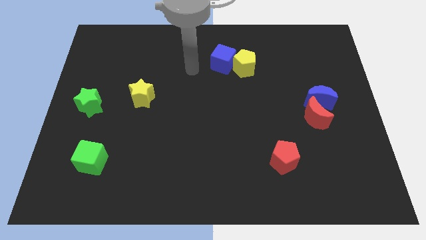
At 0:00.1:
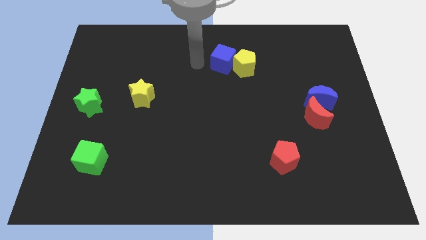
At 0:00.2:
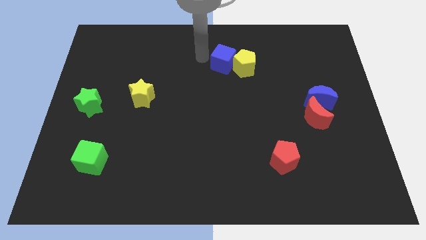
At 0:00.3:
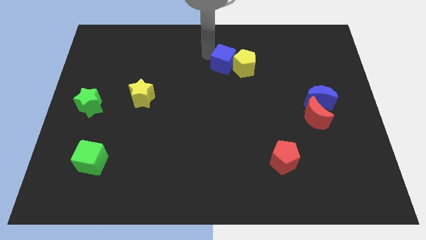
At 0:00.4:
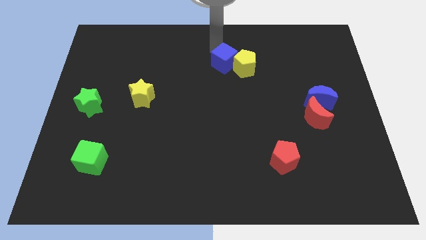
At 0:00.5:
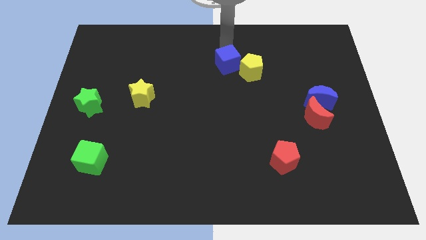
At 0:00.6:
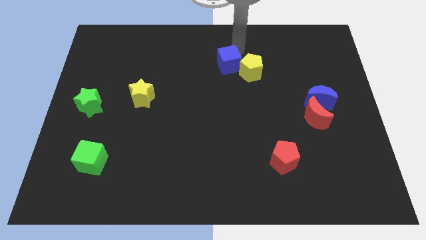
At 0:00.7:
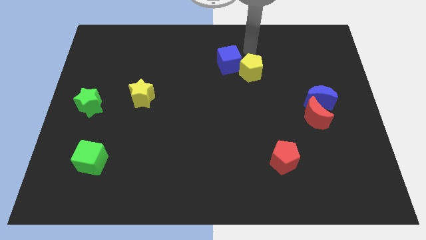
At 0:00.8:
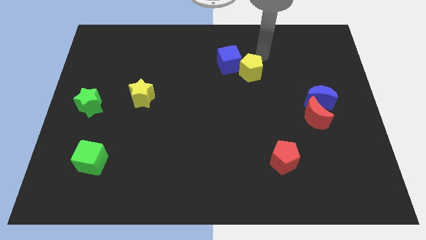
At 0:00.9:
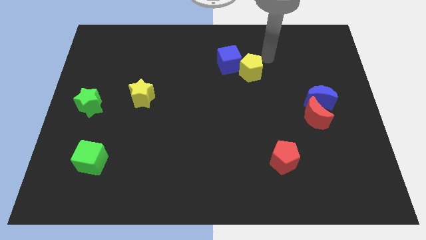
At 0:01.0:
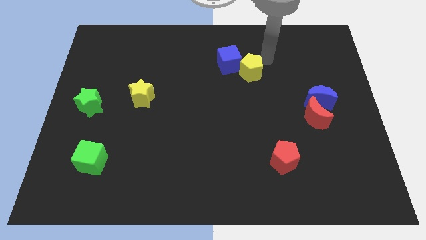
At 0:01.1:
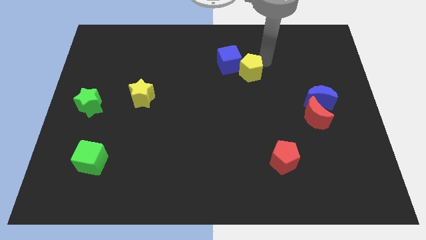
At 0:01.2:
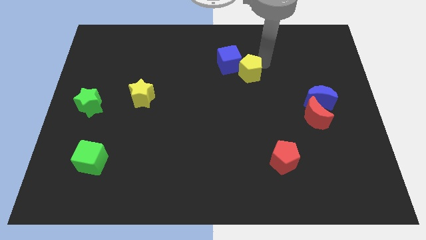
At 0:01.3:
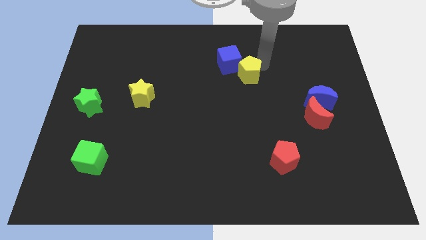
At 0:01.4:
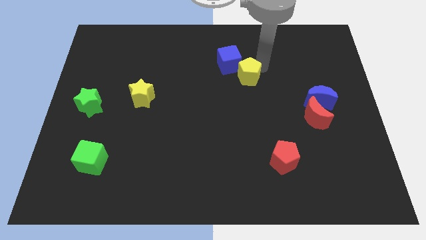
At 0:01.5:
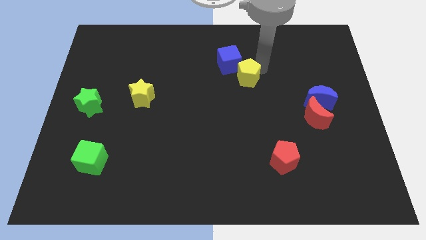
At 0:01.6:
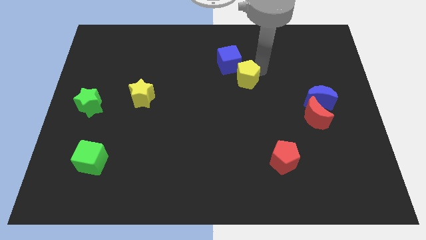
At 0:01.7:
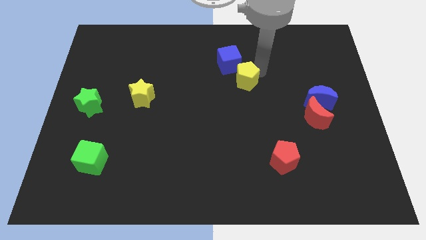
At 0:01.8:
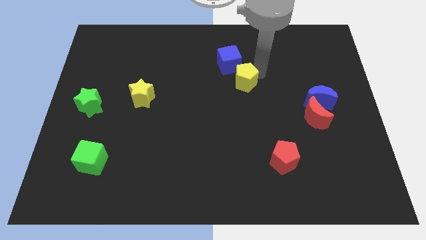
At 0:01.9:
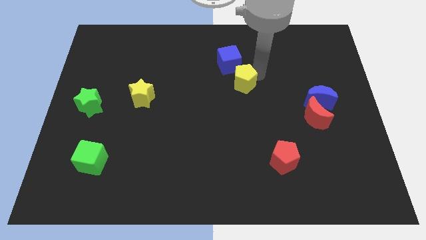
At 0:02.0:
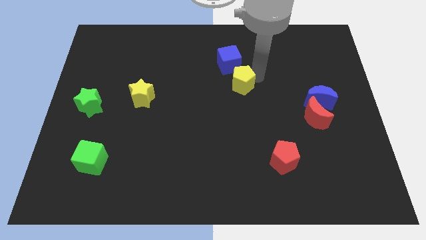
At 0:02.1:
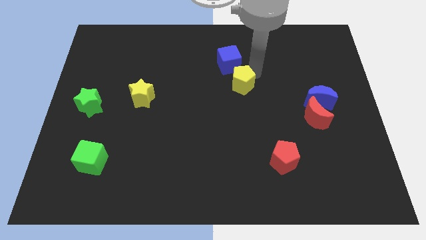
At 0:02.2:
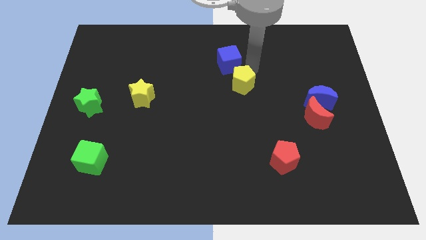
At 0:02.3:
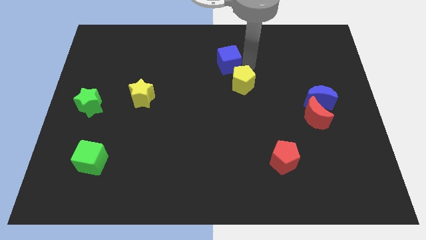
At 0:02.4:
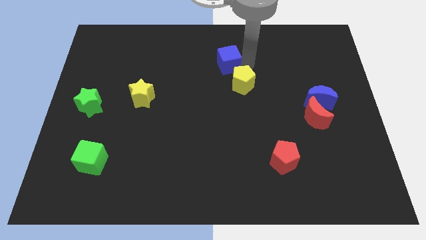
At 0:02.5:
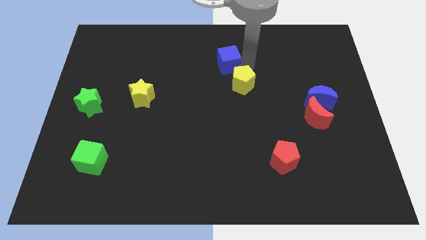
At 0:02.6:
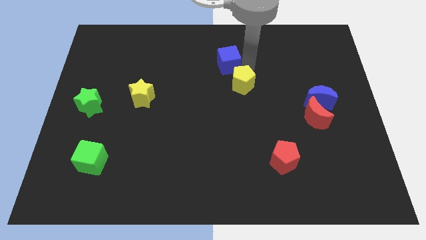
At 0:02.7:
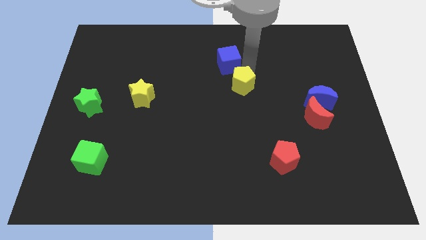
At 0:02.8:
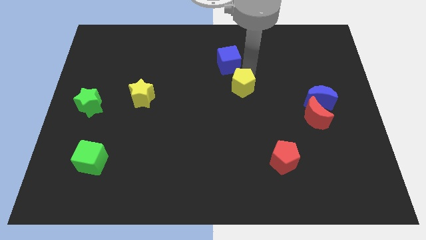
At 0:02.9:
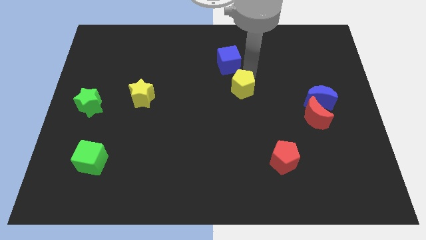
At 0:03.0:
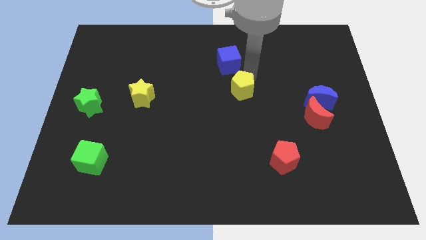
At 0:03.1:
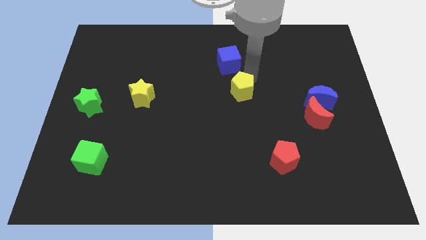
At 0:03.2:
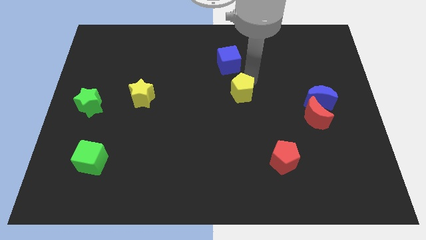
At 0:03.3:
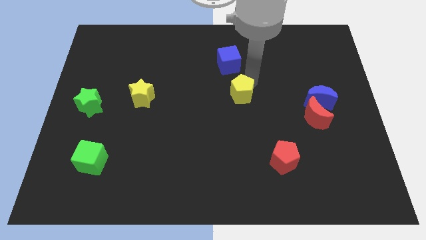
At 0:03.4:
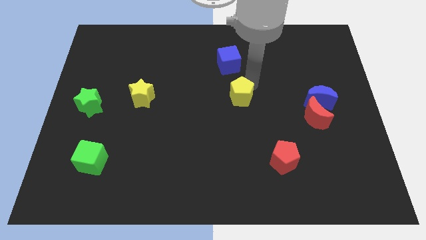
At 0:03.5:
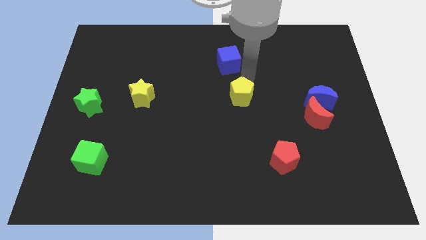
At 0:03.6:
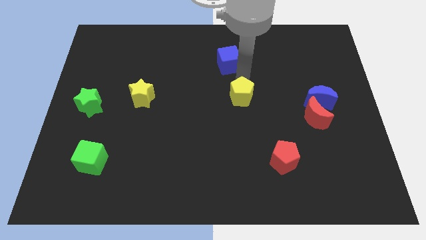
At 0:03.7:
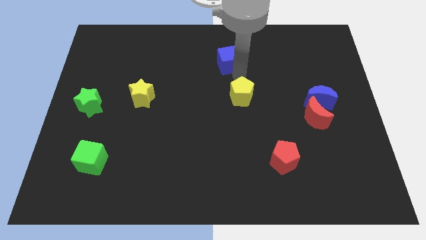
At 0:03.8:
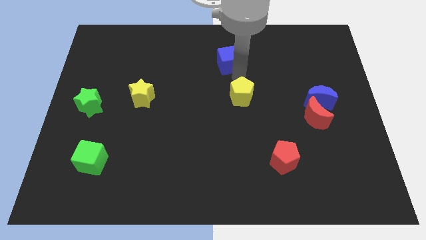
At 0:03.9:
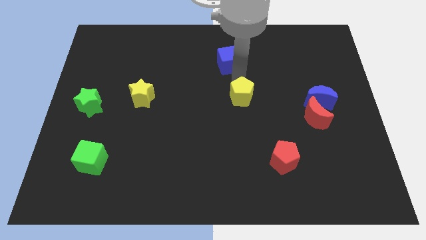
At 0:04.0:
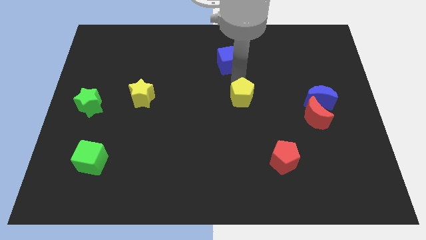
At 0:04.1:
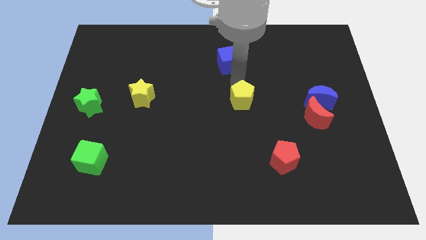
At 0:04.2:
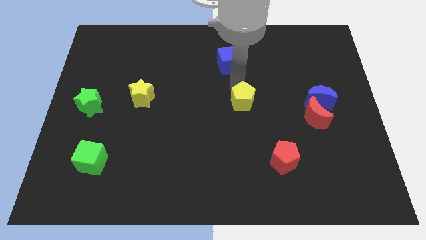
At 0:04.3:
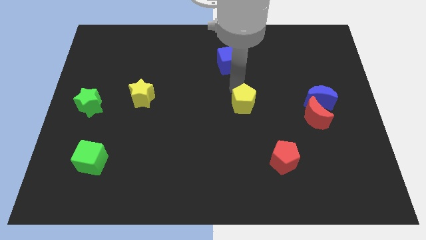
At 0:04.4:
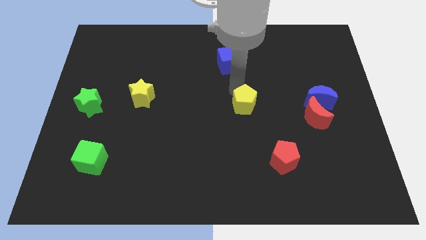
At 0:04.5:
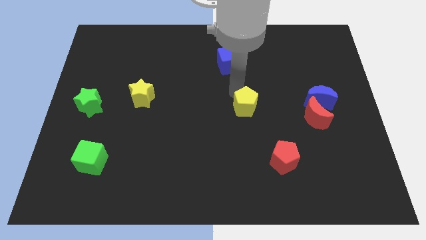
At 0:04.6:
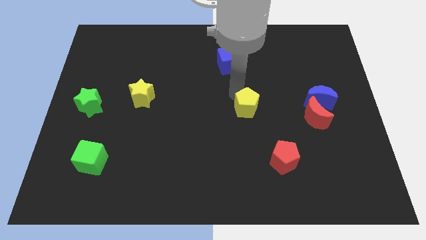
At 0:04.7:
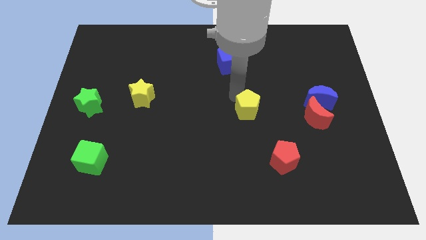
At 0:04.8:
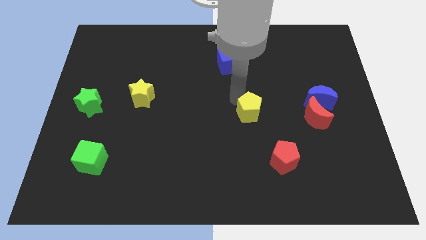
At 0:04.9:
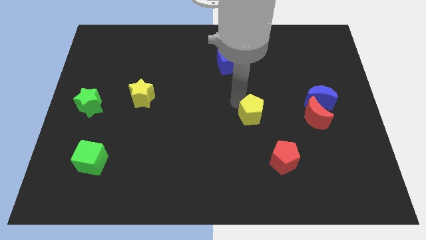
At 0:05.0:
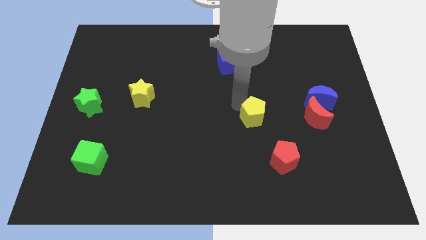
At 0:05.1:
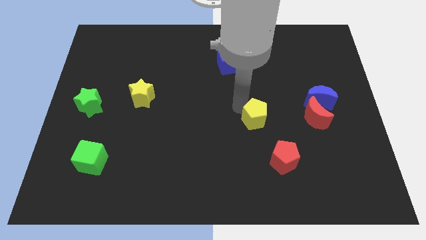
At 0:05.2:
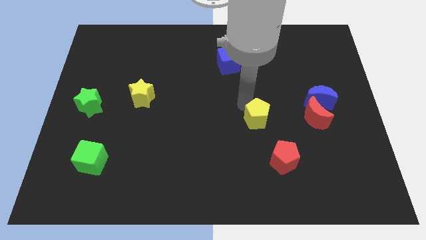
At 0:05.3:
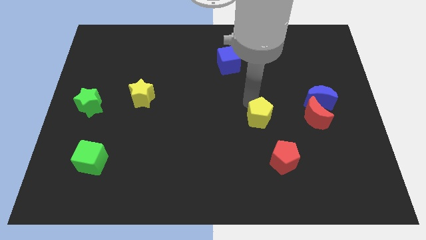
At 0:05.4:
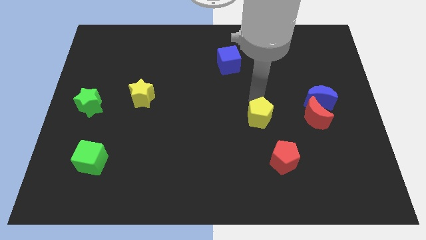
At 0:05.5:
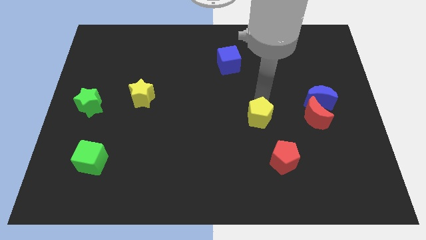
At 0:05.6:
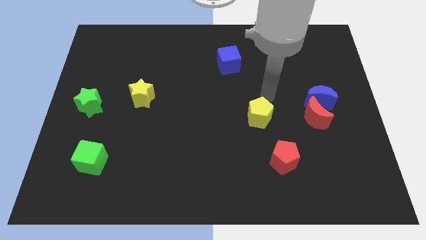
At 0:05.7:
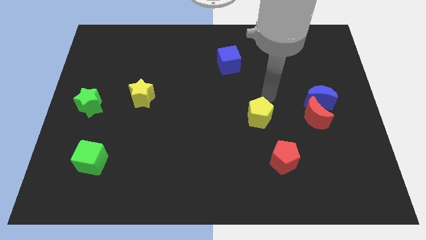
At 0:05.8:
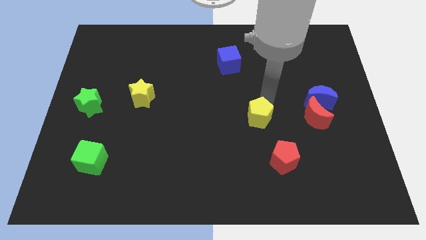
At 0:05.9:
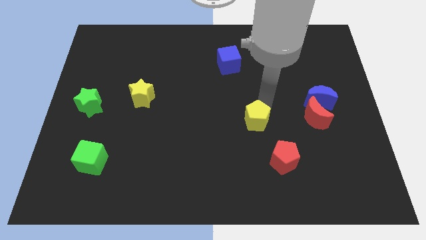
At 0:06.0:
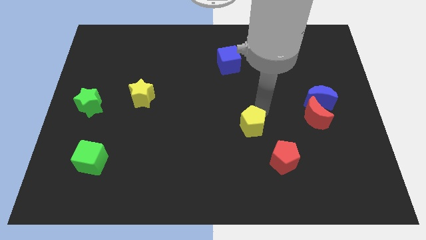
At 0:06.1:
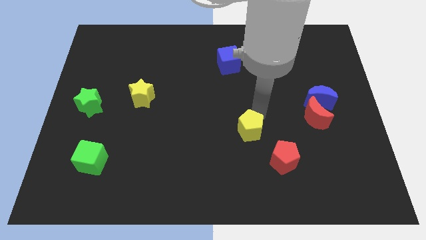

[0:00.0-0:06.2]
move the yellow pentagon down

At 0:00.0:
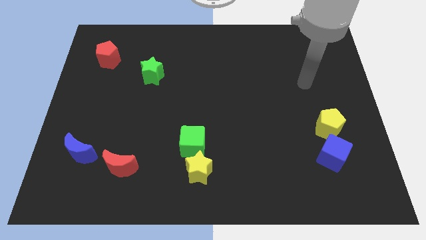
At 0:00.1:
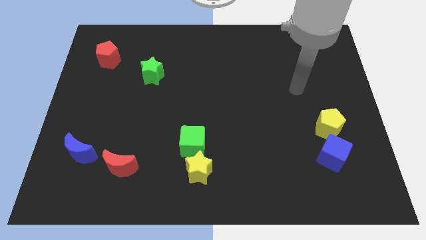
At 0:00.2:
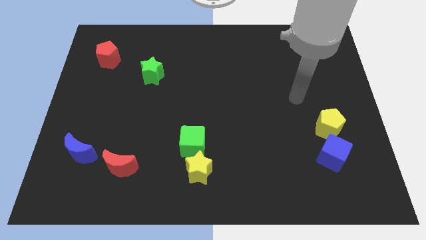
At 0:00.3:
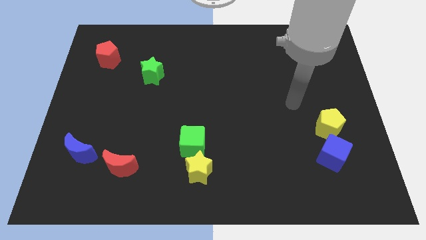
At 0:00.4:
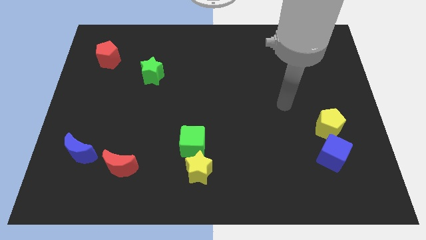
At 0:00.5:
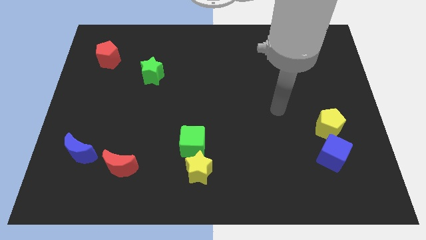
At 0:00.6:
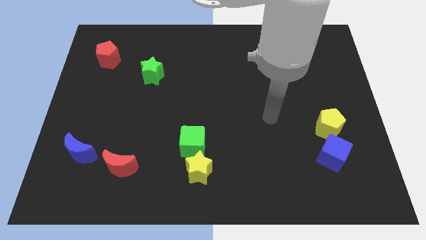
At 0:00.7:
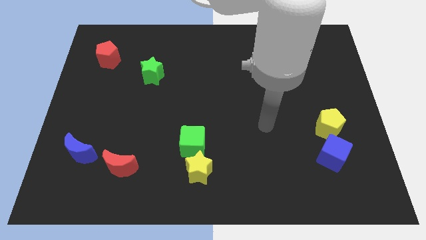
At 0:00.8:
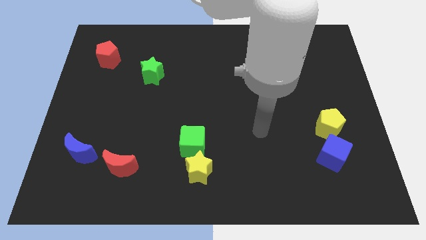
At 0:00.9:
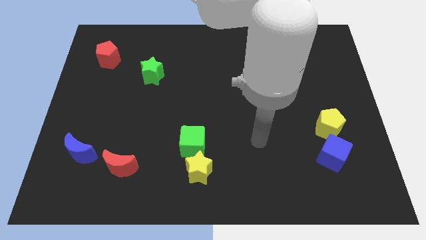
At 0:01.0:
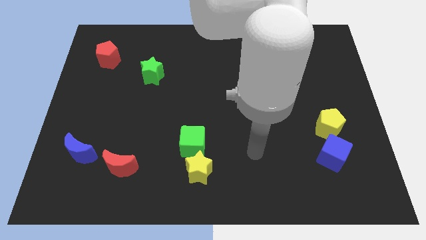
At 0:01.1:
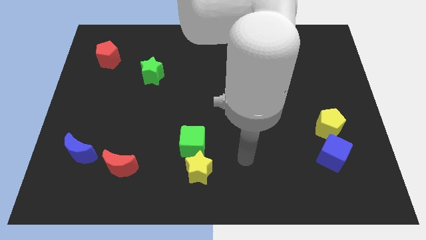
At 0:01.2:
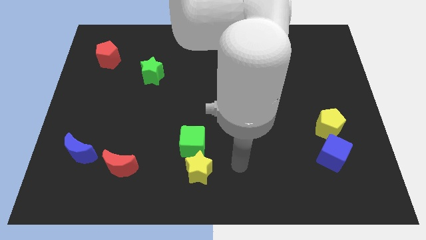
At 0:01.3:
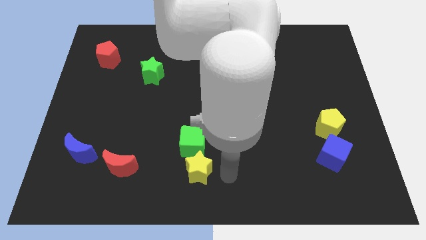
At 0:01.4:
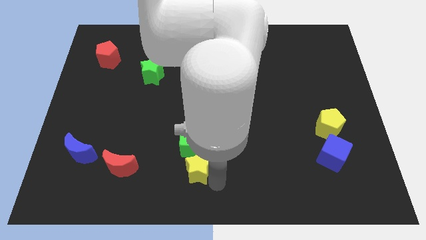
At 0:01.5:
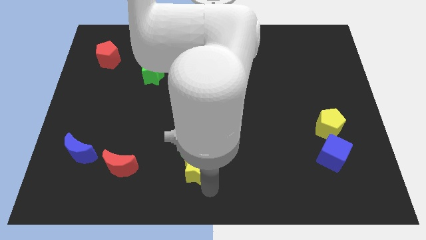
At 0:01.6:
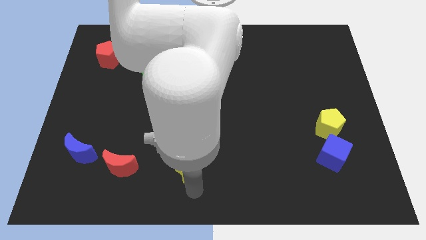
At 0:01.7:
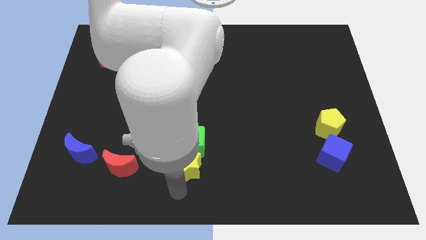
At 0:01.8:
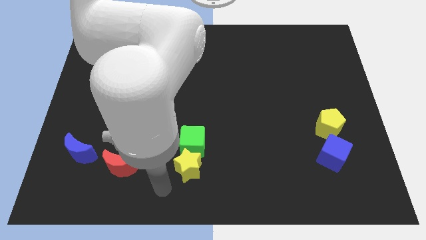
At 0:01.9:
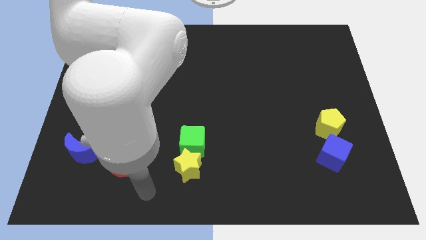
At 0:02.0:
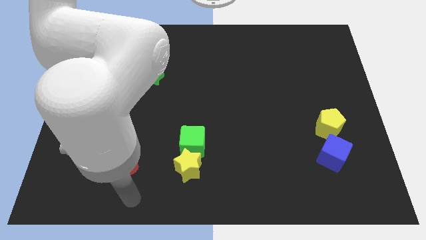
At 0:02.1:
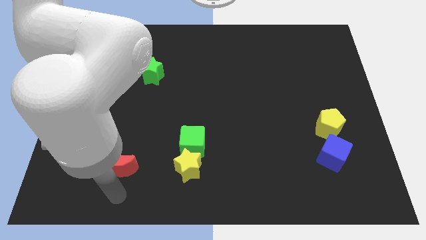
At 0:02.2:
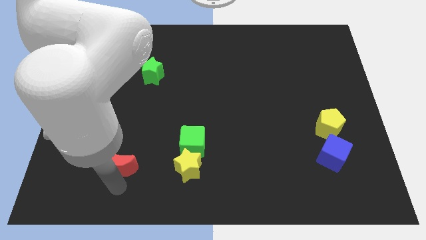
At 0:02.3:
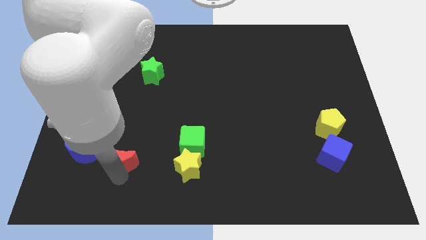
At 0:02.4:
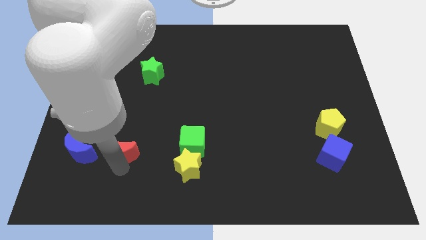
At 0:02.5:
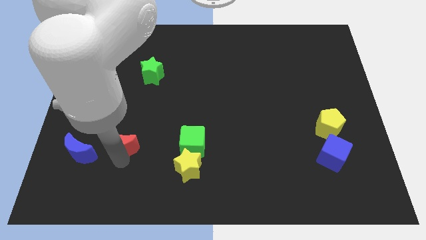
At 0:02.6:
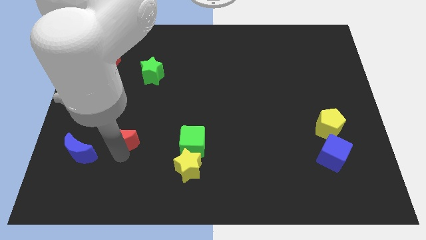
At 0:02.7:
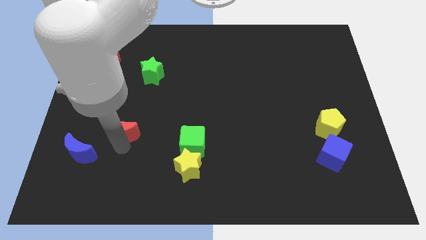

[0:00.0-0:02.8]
slightly move the red moon up
